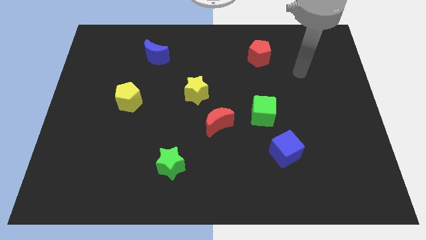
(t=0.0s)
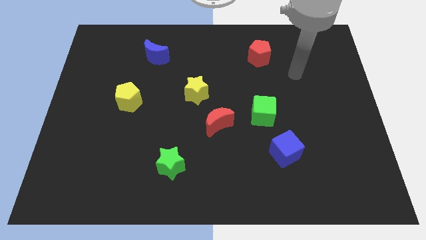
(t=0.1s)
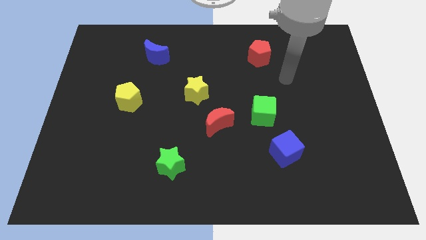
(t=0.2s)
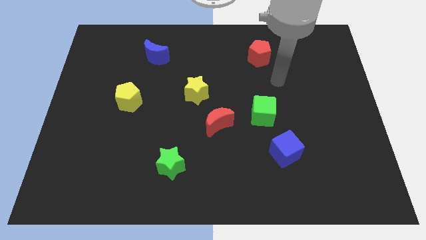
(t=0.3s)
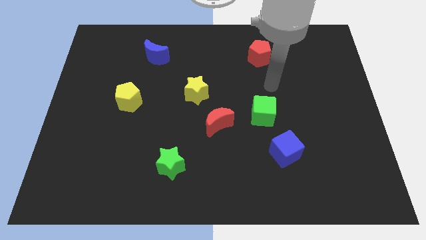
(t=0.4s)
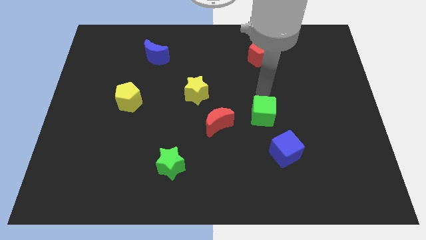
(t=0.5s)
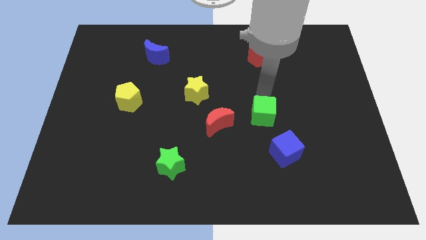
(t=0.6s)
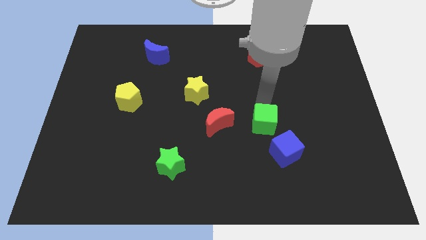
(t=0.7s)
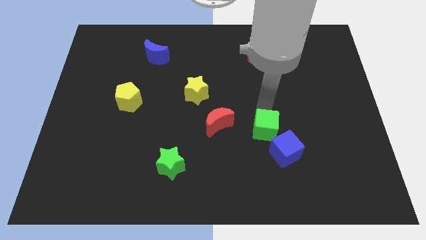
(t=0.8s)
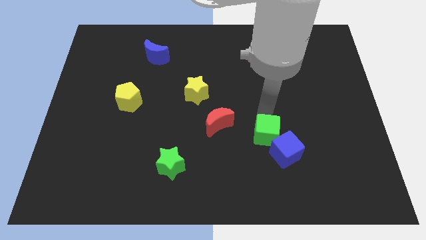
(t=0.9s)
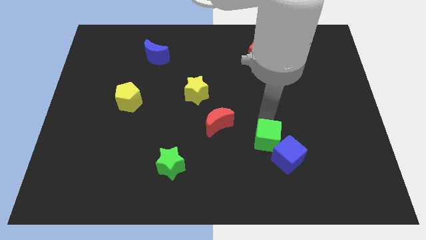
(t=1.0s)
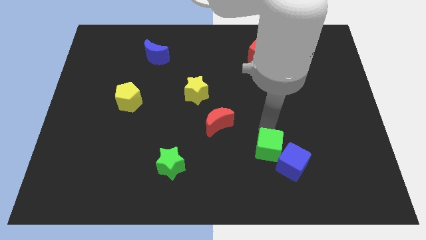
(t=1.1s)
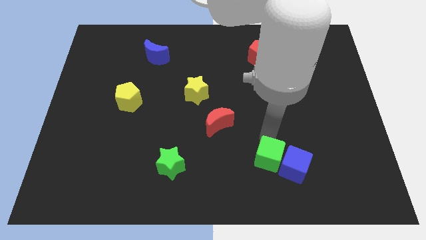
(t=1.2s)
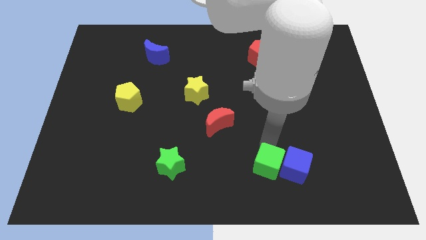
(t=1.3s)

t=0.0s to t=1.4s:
slide the green cube to the bottom left of the blue cube

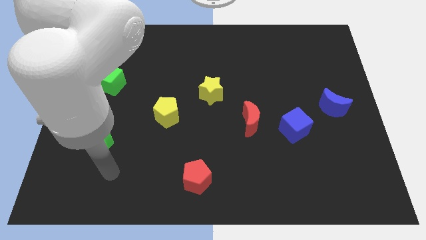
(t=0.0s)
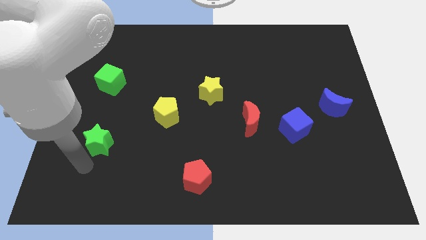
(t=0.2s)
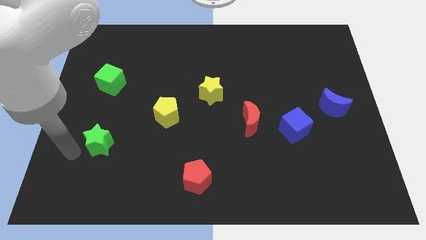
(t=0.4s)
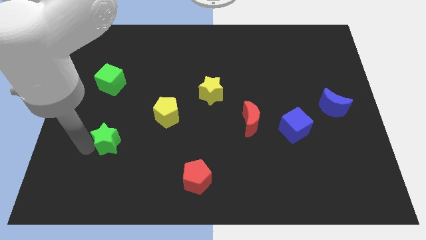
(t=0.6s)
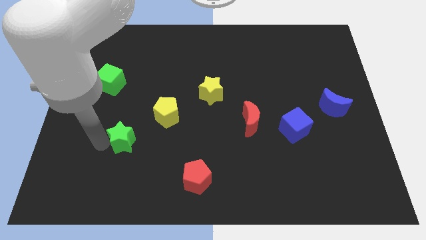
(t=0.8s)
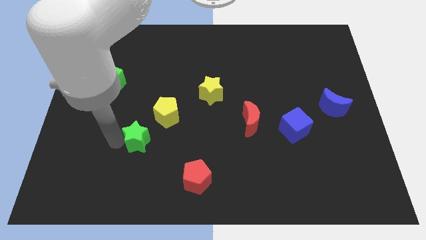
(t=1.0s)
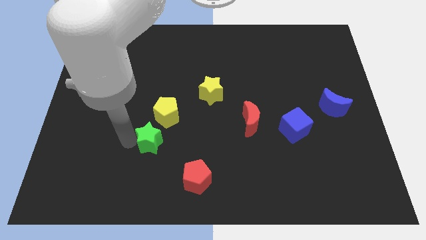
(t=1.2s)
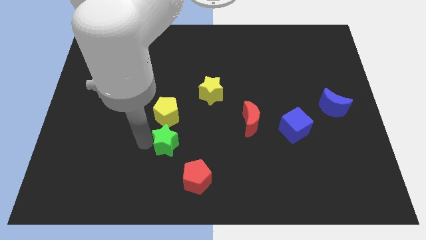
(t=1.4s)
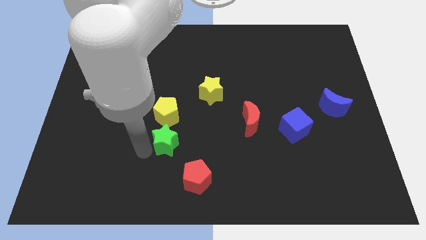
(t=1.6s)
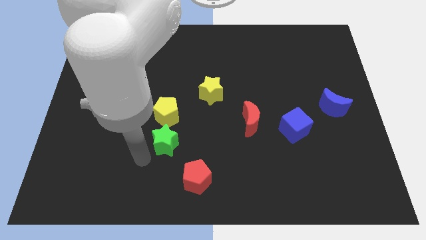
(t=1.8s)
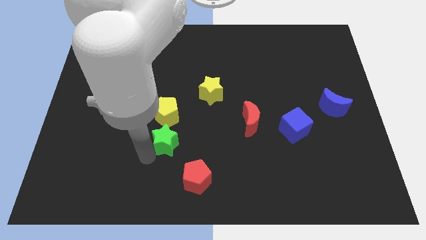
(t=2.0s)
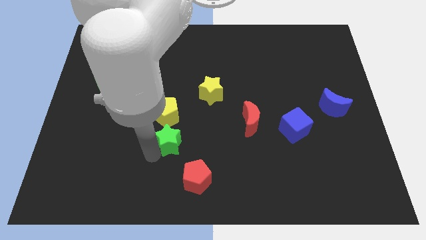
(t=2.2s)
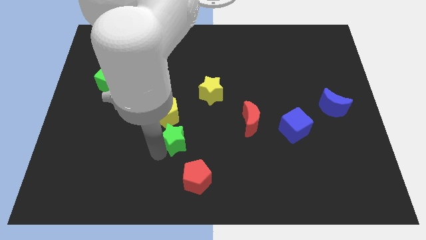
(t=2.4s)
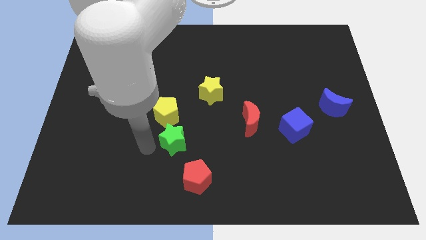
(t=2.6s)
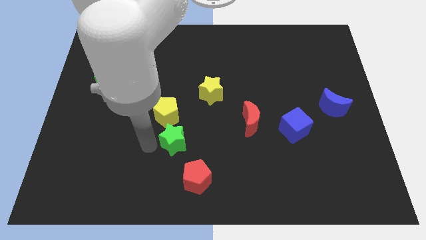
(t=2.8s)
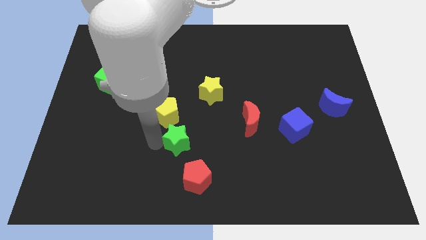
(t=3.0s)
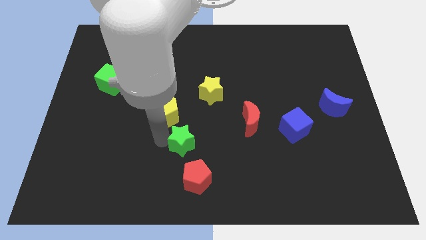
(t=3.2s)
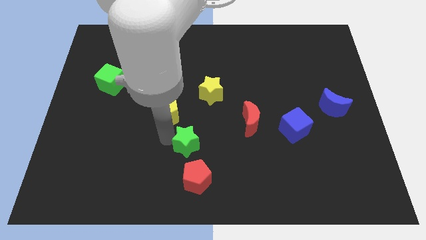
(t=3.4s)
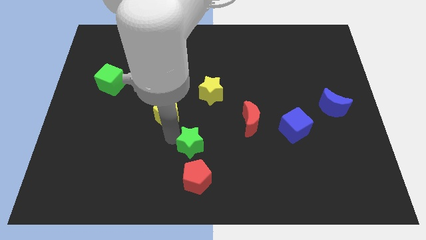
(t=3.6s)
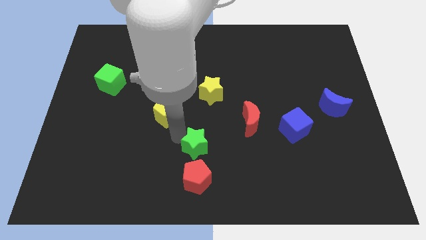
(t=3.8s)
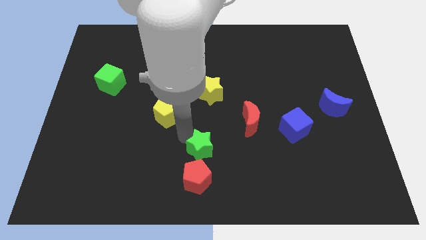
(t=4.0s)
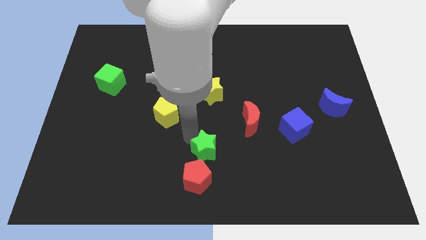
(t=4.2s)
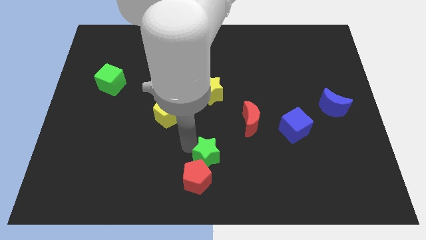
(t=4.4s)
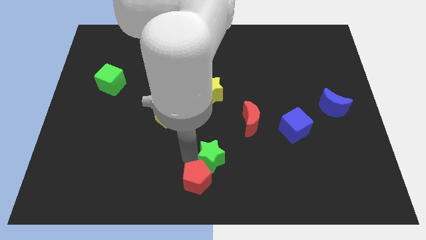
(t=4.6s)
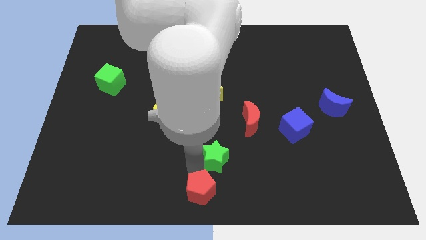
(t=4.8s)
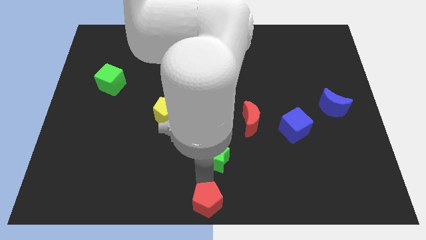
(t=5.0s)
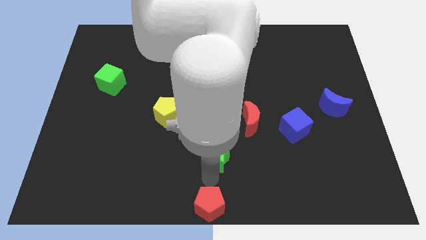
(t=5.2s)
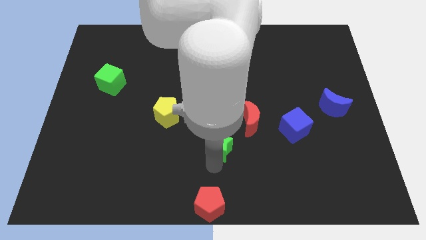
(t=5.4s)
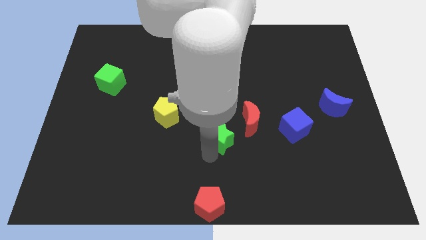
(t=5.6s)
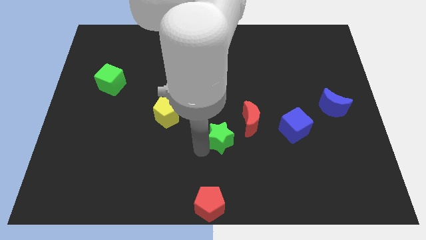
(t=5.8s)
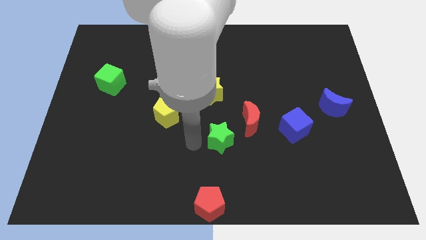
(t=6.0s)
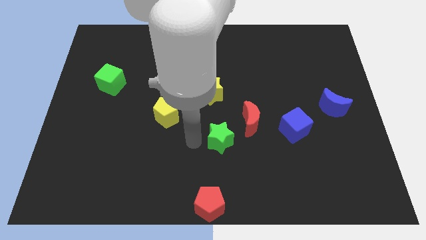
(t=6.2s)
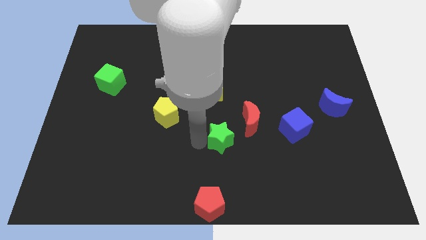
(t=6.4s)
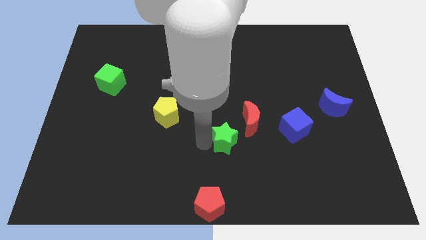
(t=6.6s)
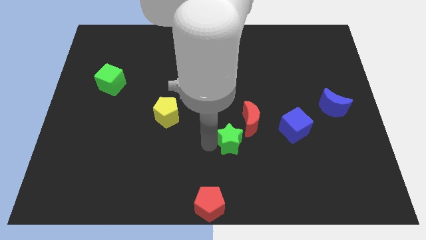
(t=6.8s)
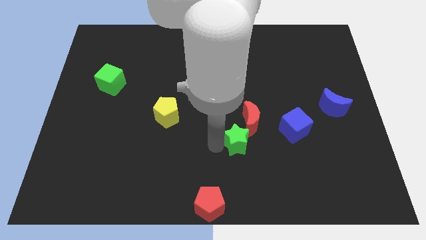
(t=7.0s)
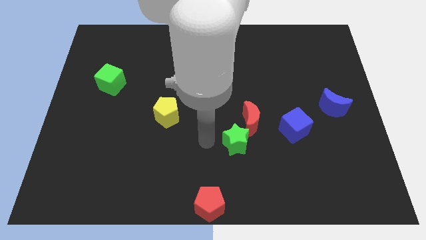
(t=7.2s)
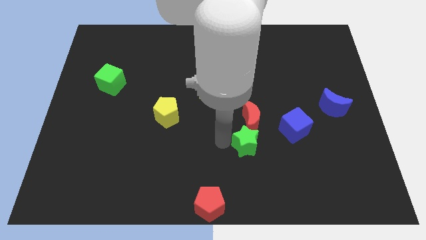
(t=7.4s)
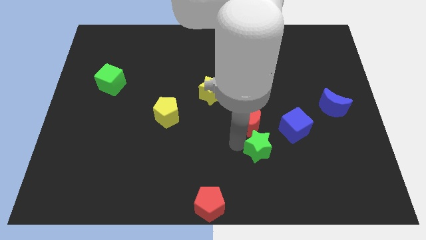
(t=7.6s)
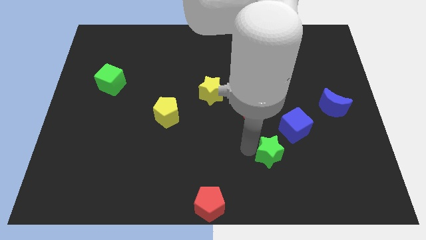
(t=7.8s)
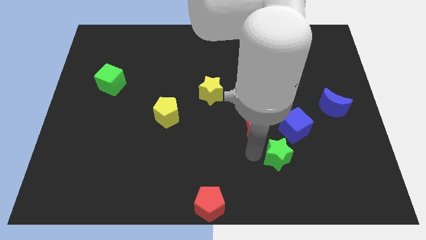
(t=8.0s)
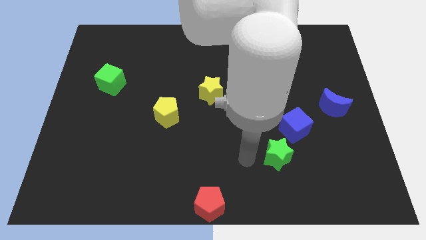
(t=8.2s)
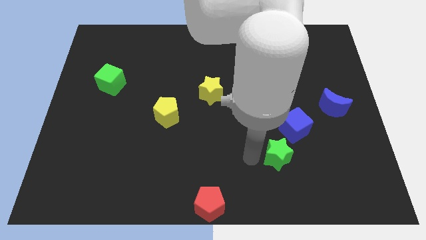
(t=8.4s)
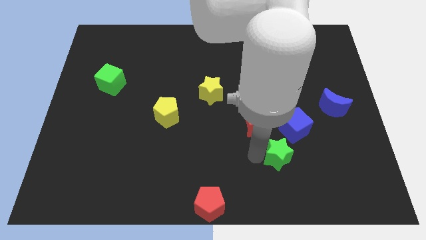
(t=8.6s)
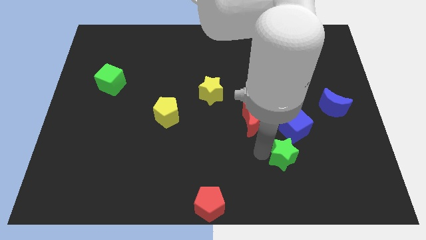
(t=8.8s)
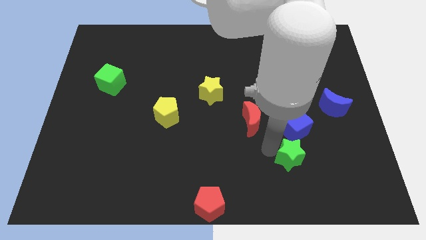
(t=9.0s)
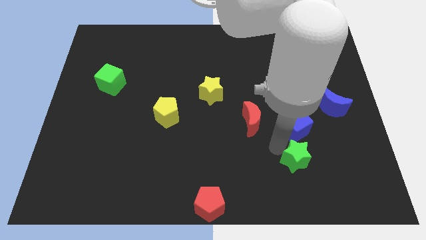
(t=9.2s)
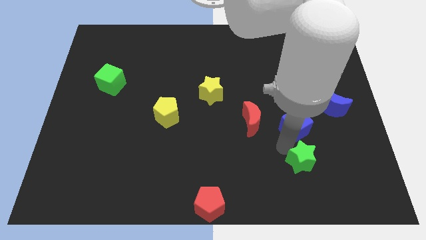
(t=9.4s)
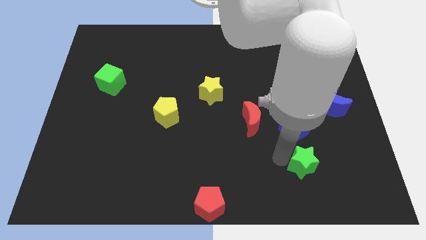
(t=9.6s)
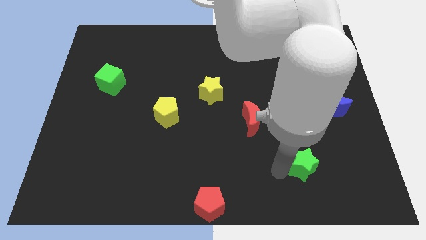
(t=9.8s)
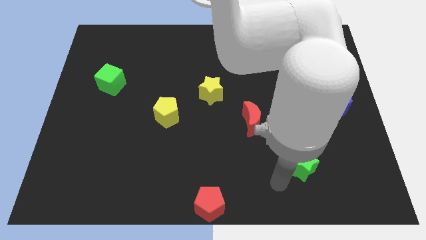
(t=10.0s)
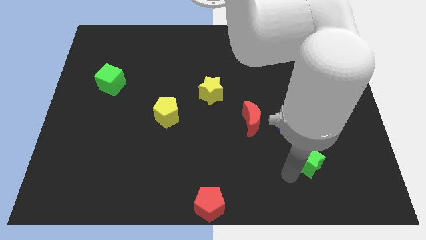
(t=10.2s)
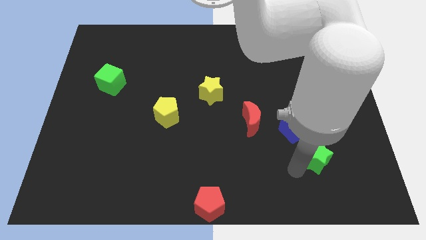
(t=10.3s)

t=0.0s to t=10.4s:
slide the green star to the bottom right of the blue cube

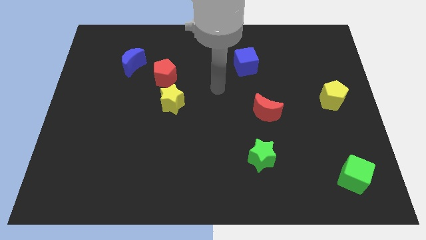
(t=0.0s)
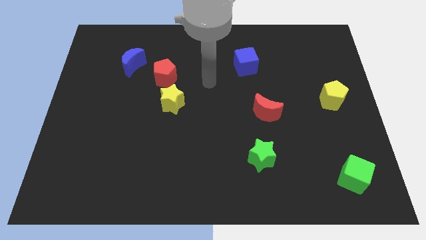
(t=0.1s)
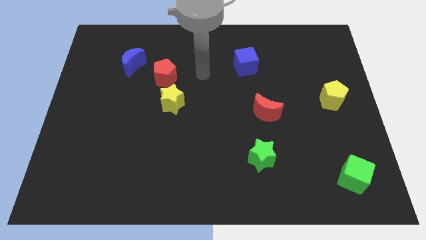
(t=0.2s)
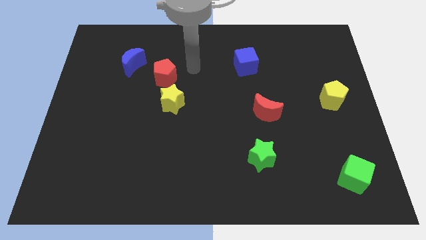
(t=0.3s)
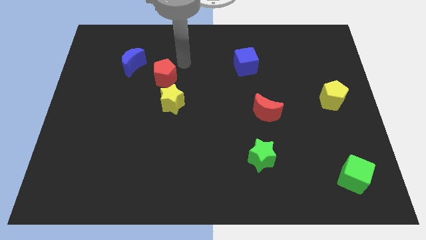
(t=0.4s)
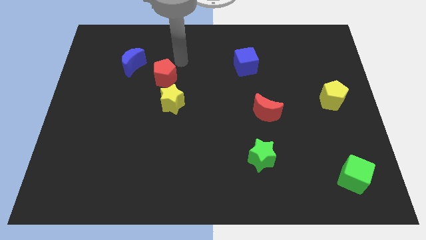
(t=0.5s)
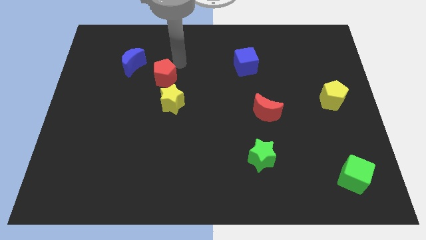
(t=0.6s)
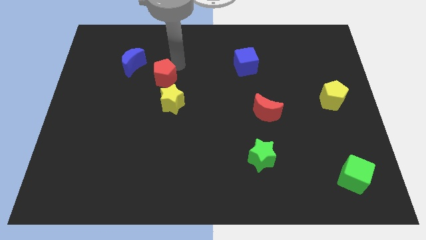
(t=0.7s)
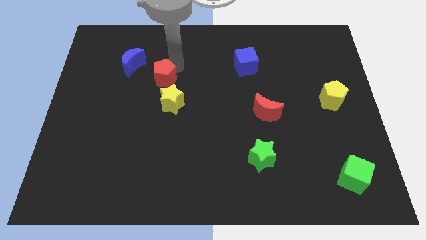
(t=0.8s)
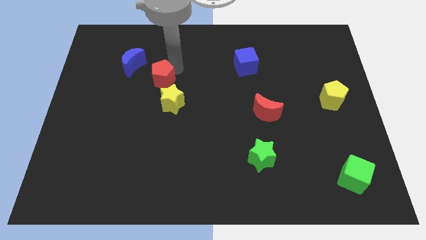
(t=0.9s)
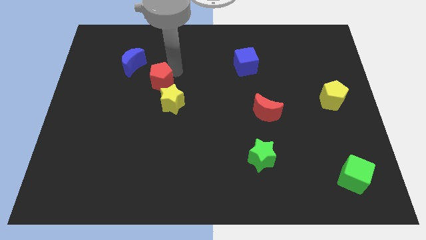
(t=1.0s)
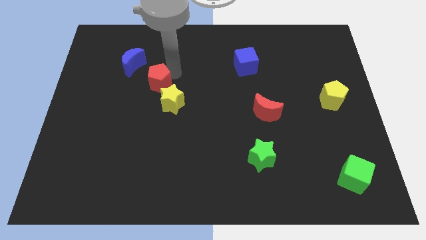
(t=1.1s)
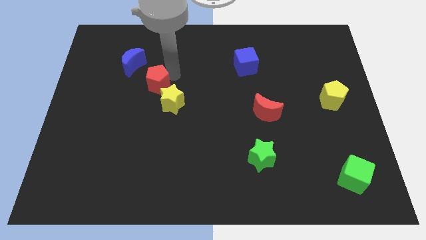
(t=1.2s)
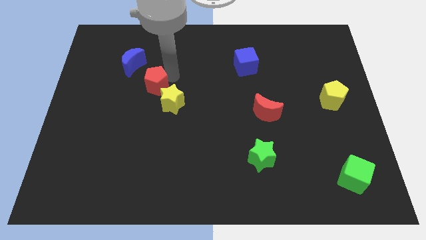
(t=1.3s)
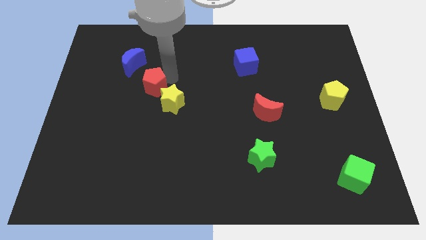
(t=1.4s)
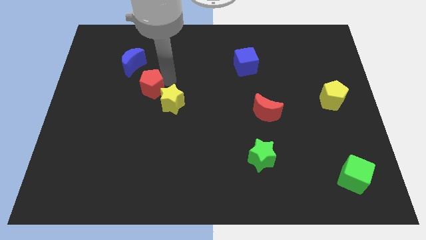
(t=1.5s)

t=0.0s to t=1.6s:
push the red pentagon to the left of the yellow star
